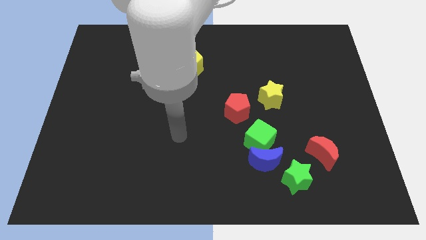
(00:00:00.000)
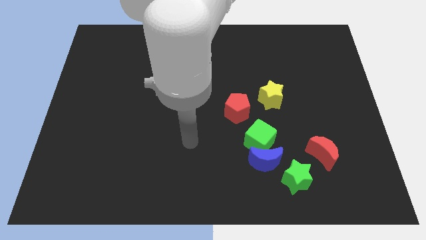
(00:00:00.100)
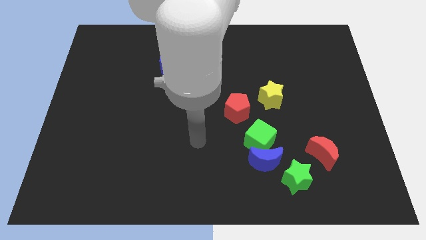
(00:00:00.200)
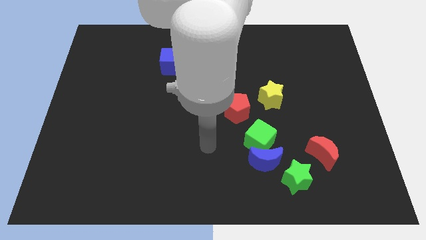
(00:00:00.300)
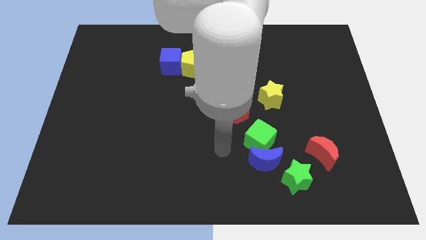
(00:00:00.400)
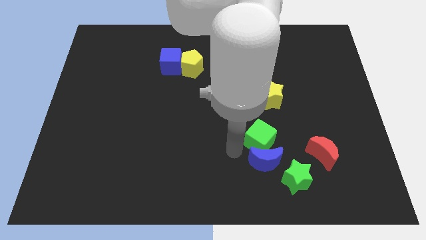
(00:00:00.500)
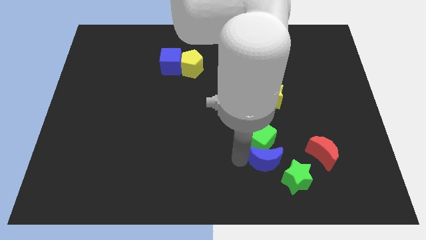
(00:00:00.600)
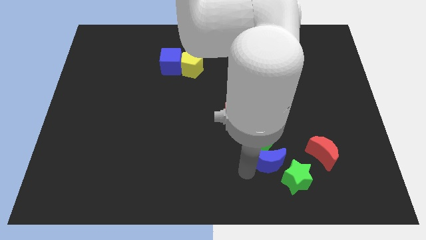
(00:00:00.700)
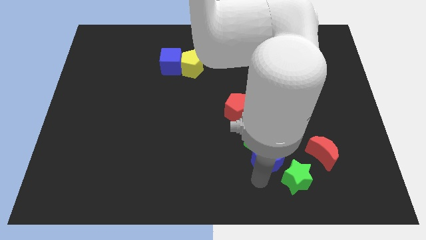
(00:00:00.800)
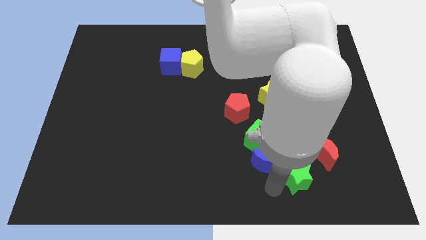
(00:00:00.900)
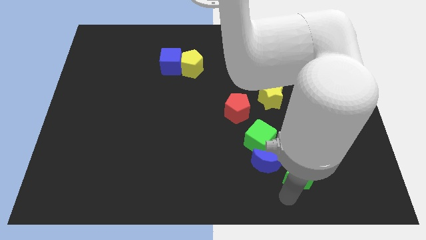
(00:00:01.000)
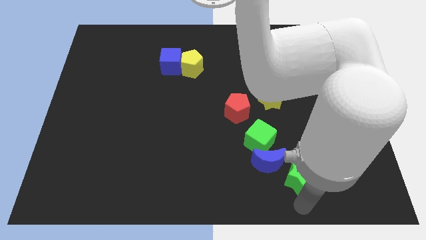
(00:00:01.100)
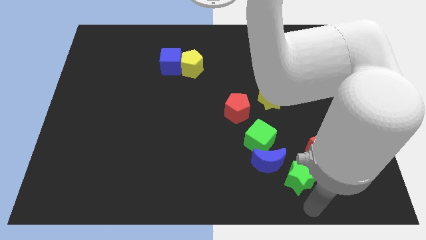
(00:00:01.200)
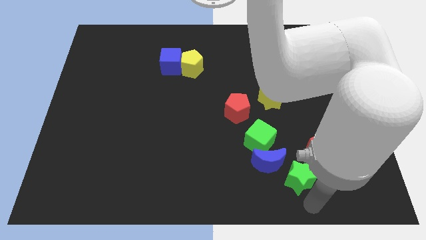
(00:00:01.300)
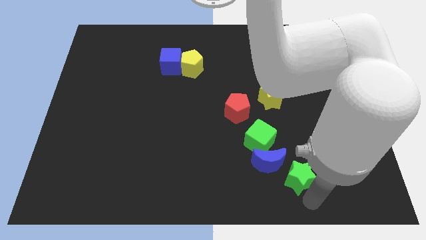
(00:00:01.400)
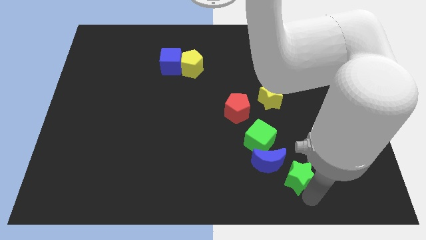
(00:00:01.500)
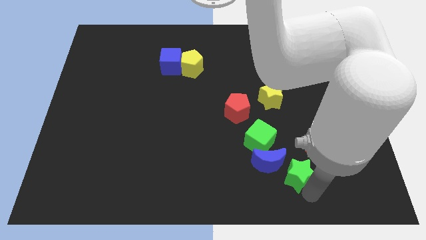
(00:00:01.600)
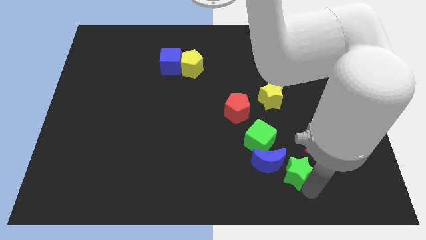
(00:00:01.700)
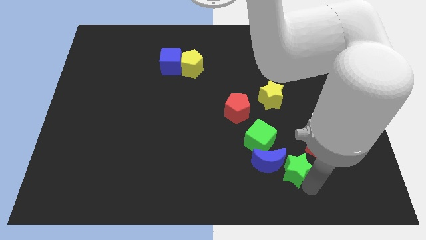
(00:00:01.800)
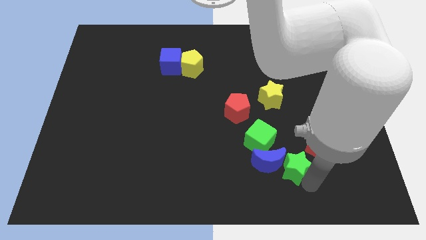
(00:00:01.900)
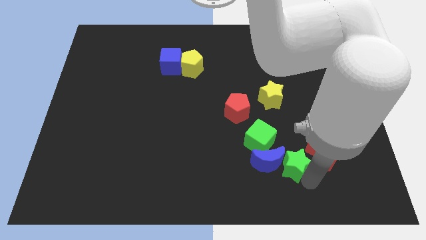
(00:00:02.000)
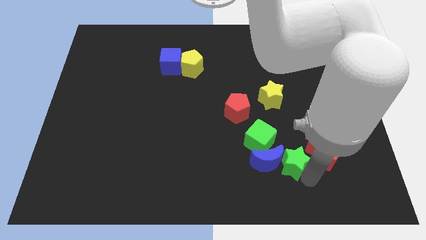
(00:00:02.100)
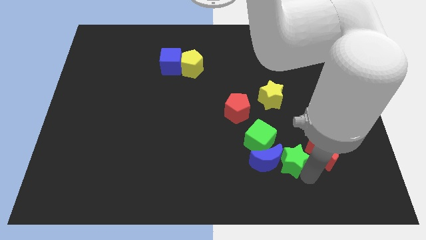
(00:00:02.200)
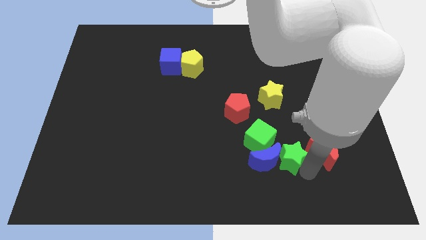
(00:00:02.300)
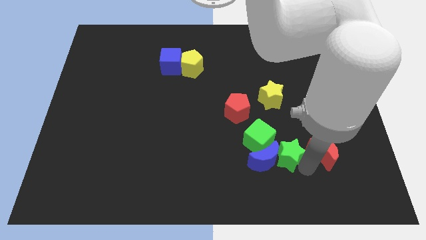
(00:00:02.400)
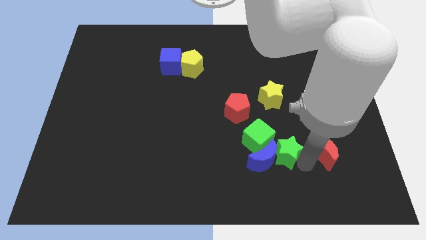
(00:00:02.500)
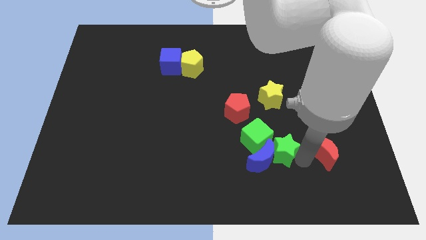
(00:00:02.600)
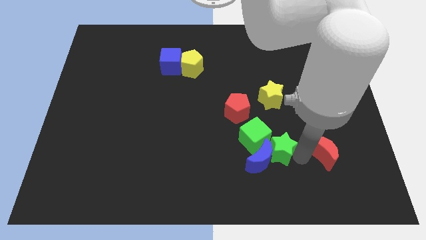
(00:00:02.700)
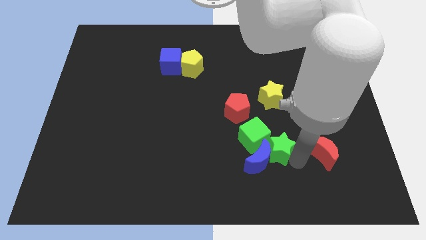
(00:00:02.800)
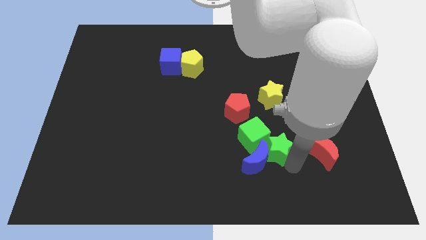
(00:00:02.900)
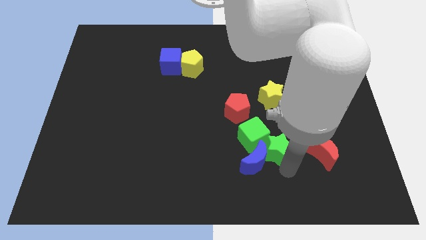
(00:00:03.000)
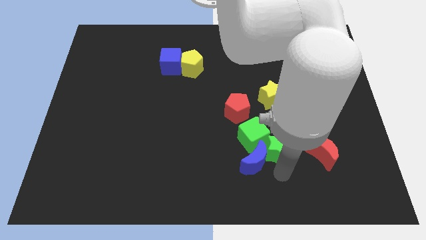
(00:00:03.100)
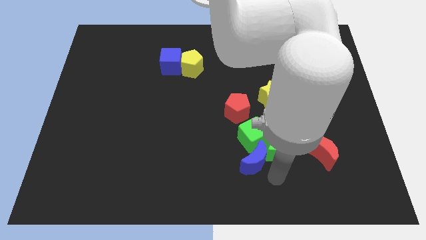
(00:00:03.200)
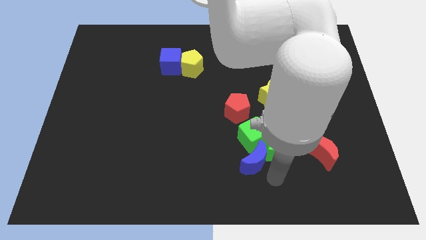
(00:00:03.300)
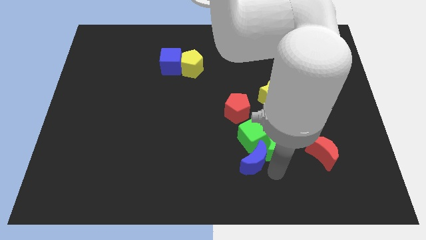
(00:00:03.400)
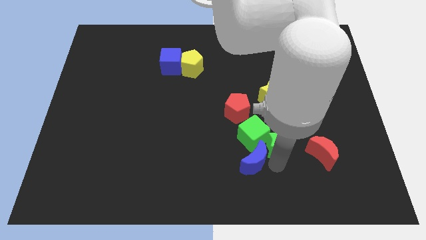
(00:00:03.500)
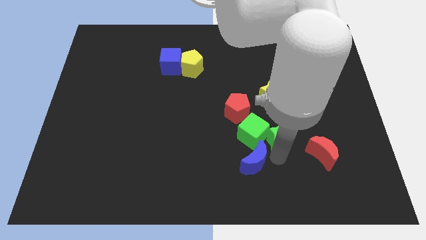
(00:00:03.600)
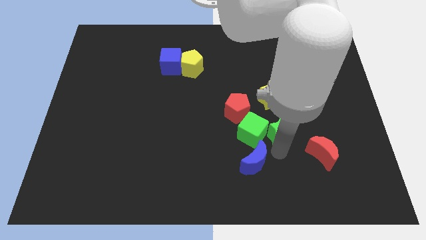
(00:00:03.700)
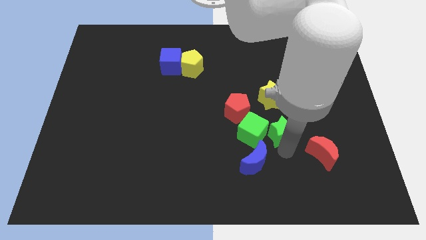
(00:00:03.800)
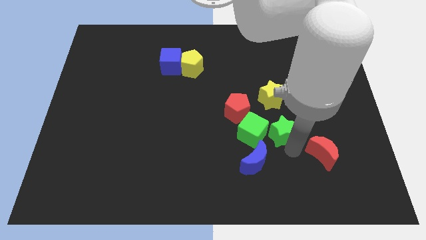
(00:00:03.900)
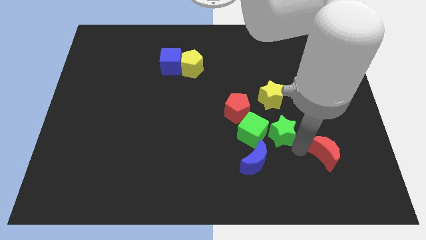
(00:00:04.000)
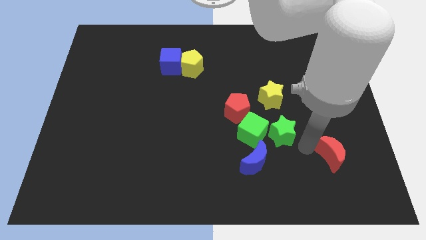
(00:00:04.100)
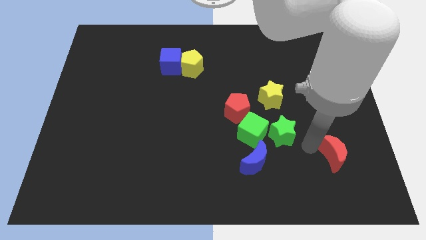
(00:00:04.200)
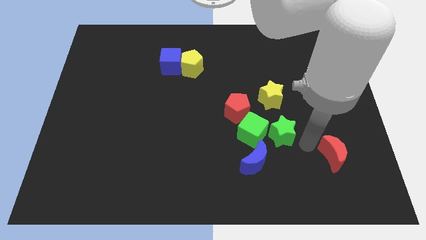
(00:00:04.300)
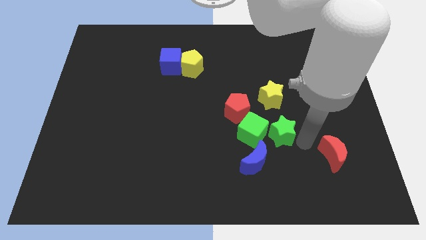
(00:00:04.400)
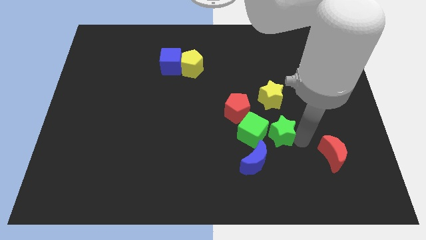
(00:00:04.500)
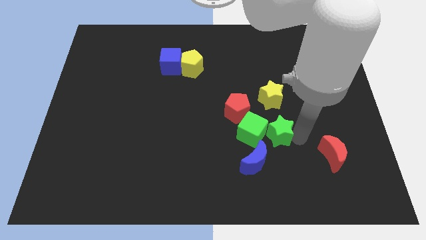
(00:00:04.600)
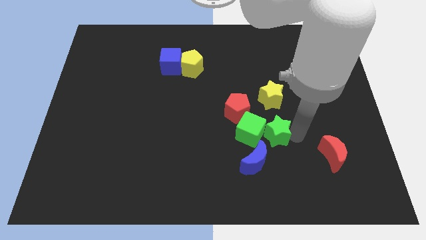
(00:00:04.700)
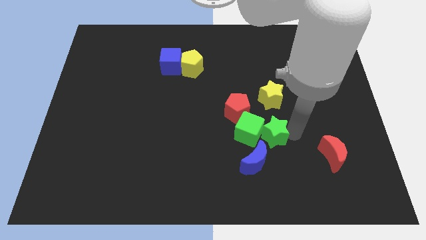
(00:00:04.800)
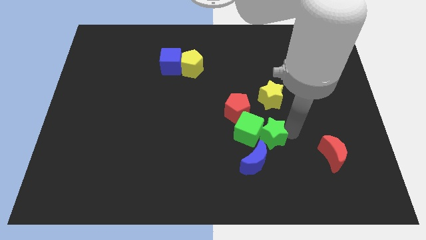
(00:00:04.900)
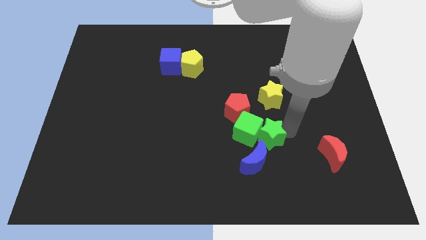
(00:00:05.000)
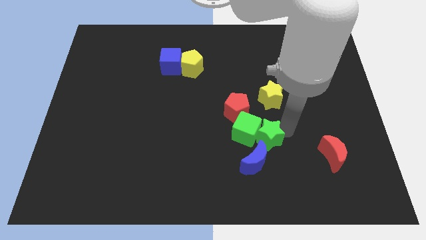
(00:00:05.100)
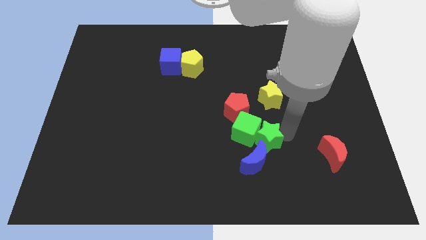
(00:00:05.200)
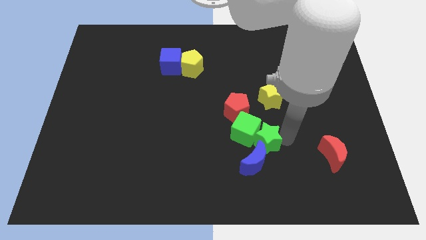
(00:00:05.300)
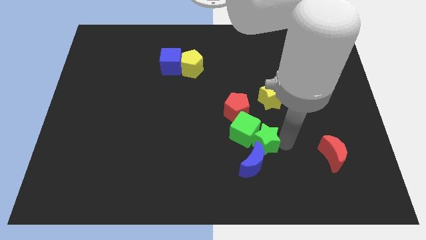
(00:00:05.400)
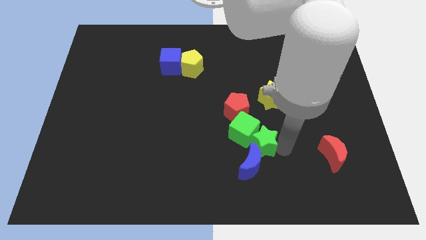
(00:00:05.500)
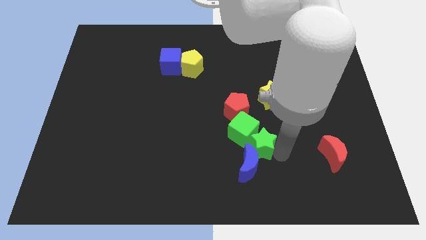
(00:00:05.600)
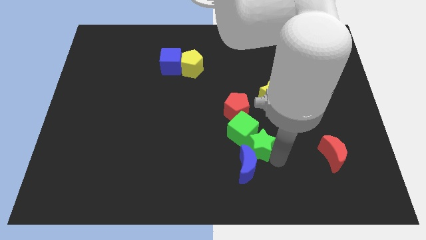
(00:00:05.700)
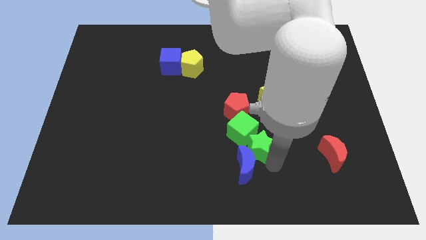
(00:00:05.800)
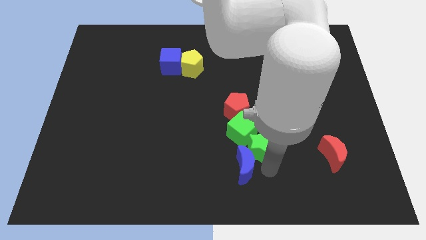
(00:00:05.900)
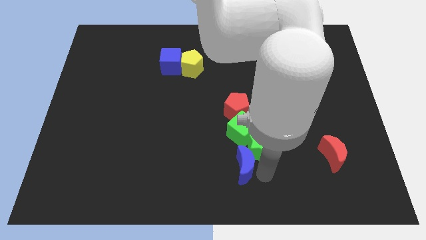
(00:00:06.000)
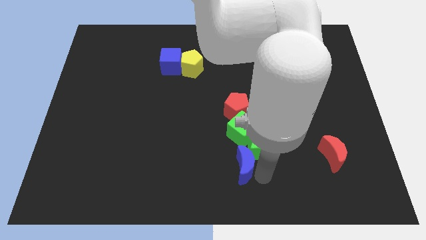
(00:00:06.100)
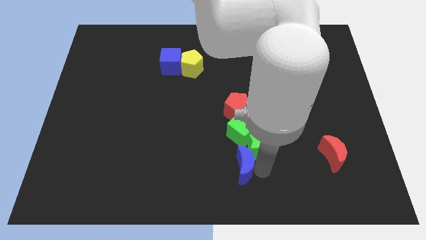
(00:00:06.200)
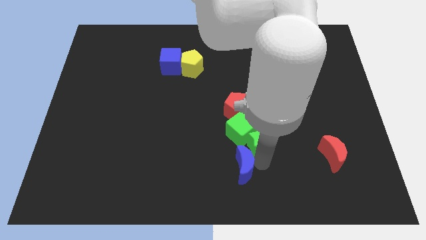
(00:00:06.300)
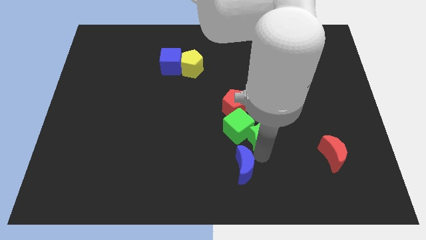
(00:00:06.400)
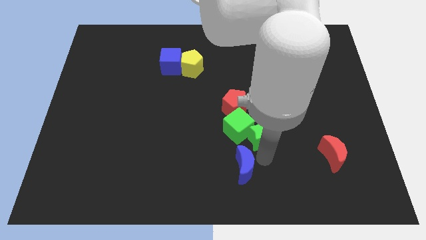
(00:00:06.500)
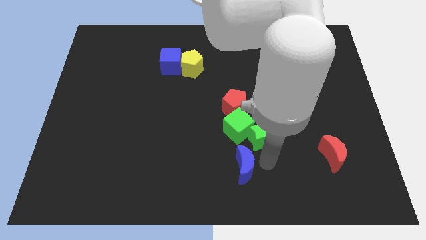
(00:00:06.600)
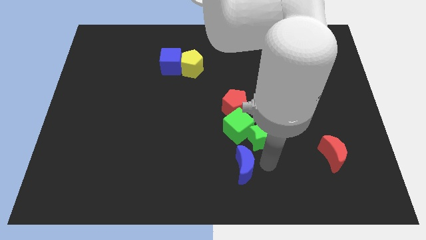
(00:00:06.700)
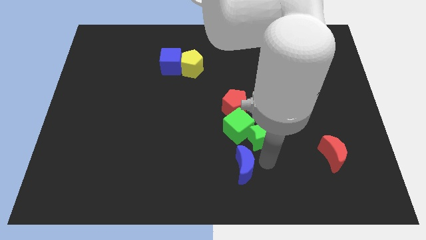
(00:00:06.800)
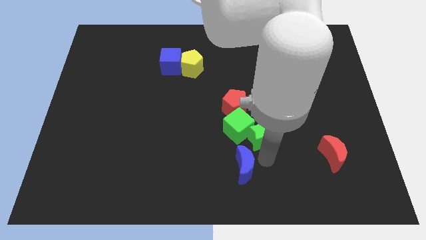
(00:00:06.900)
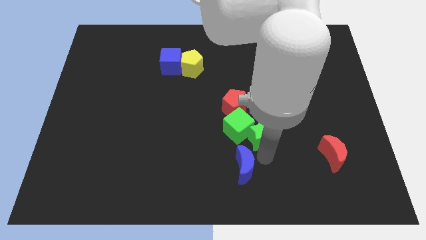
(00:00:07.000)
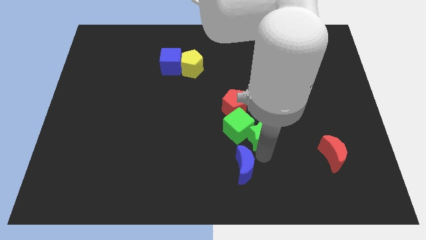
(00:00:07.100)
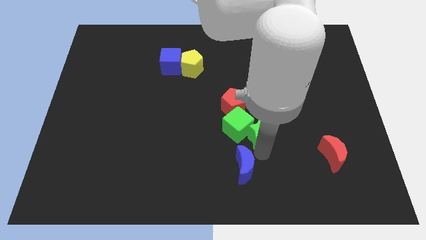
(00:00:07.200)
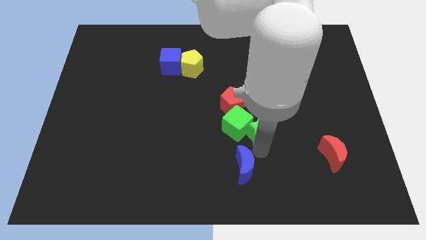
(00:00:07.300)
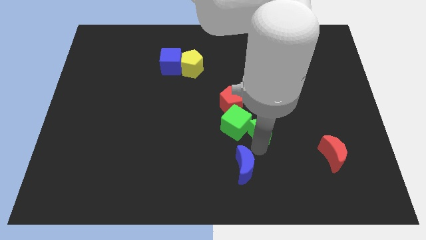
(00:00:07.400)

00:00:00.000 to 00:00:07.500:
put the green star to the bottom left side of the yellow star
